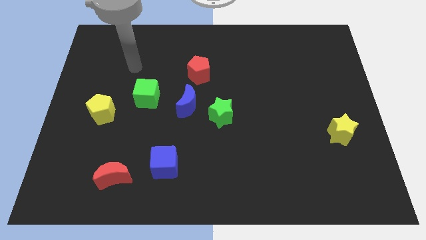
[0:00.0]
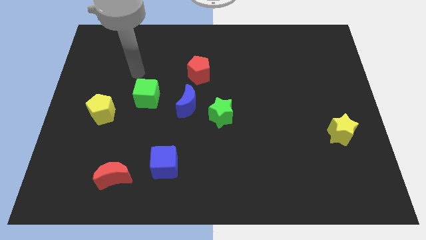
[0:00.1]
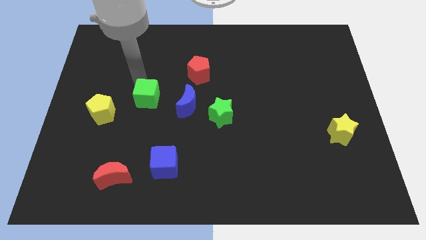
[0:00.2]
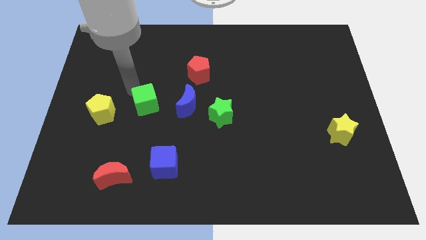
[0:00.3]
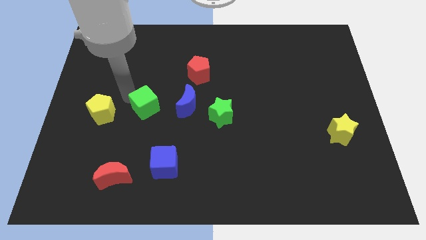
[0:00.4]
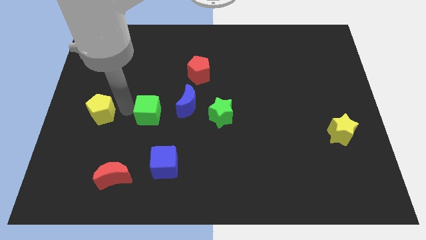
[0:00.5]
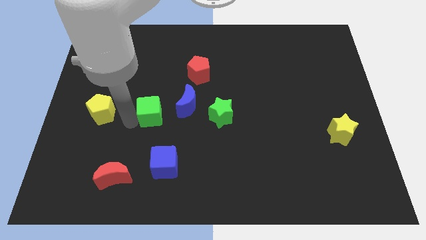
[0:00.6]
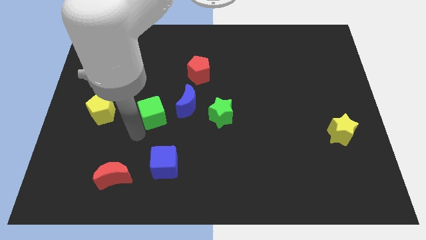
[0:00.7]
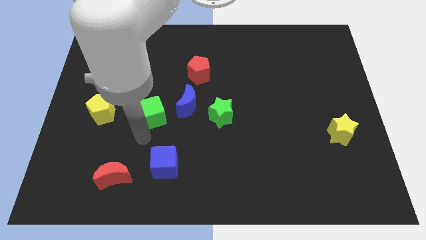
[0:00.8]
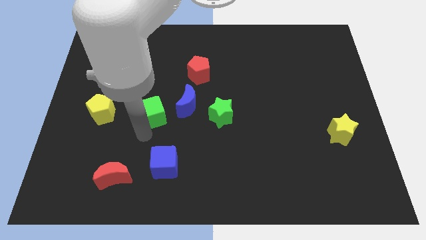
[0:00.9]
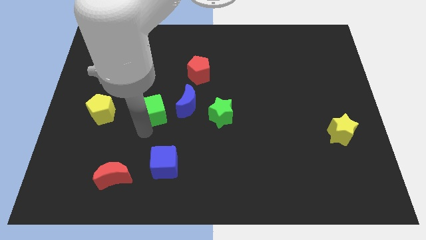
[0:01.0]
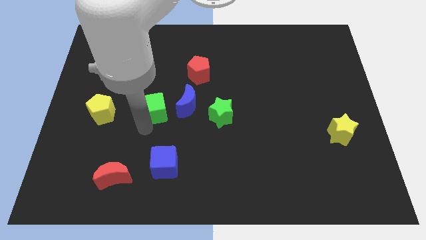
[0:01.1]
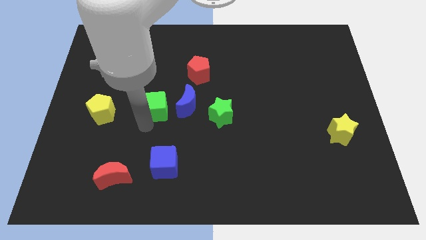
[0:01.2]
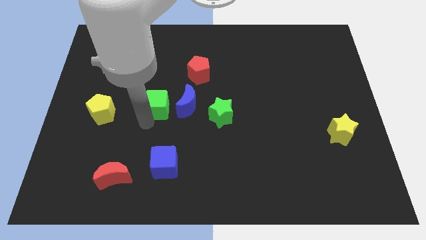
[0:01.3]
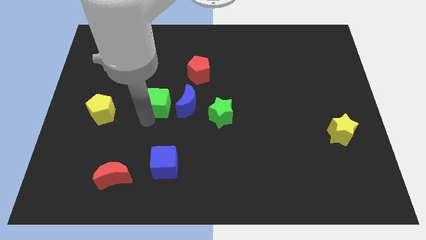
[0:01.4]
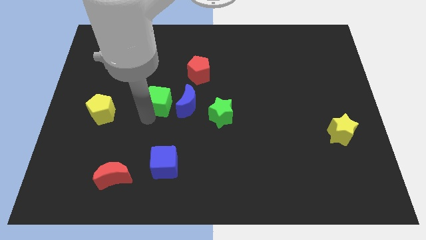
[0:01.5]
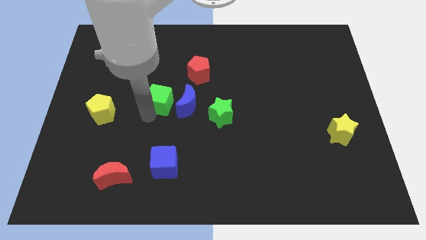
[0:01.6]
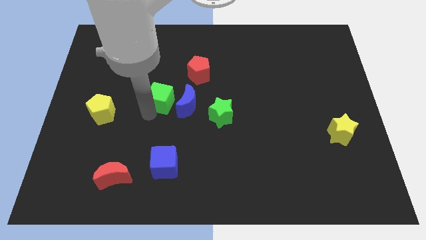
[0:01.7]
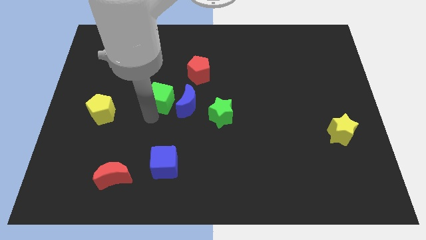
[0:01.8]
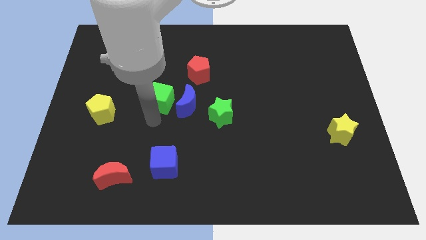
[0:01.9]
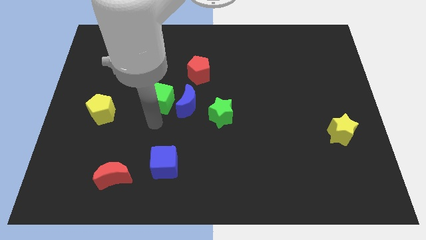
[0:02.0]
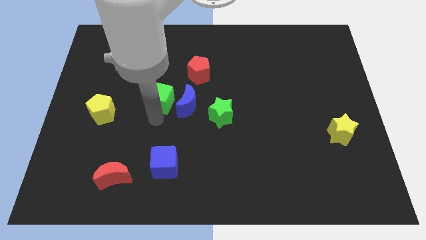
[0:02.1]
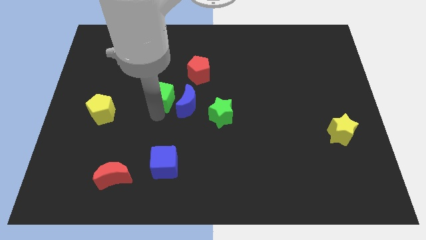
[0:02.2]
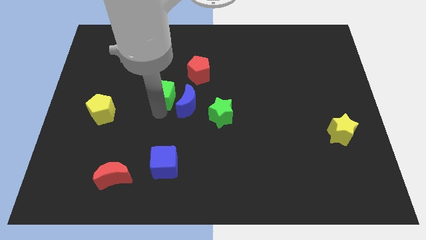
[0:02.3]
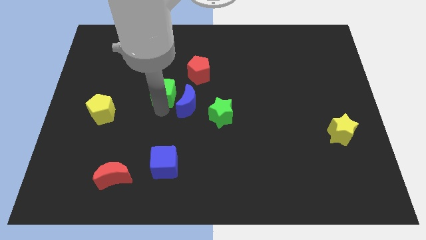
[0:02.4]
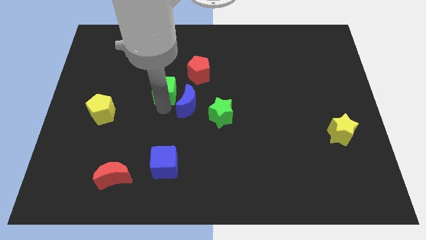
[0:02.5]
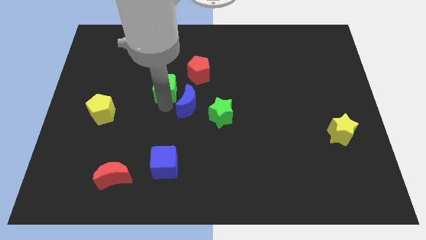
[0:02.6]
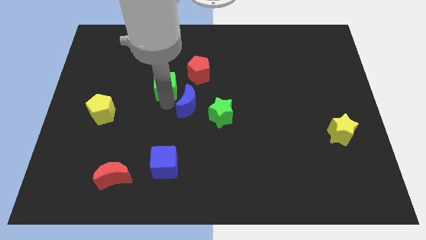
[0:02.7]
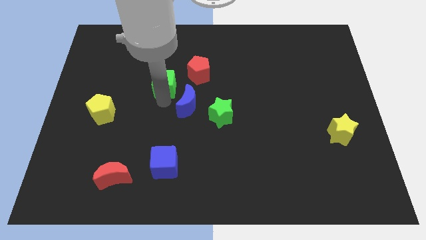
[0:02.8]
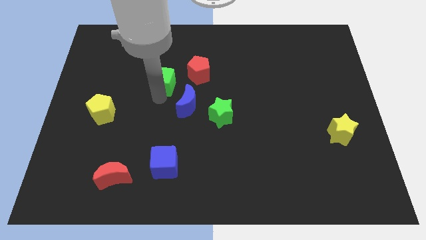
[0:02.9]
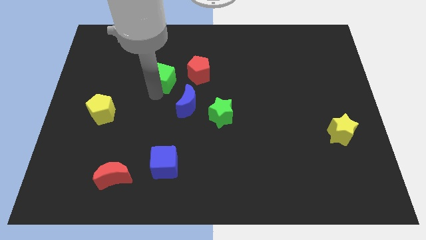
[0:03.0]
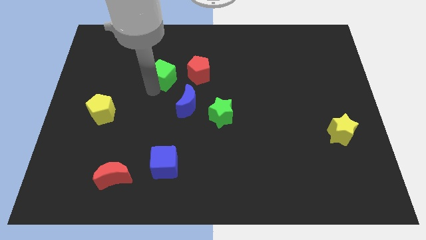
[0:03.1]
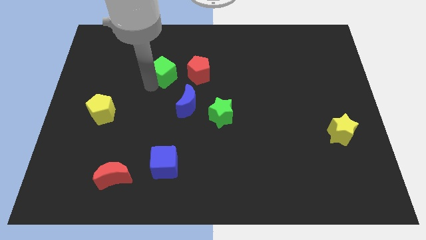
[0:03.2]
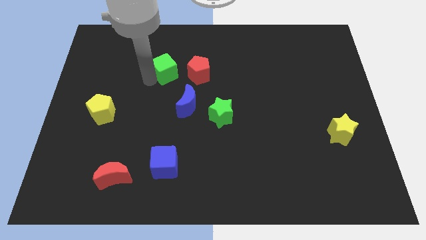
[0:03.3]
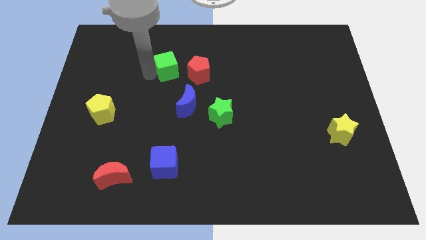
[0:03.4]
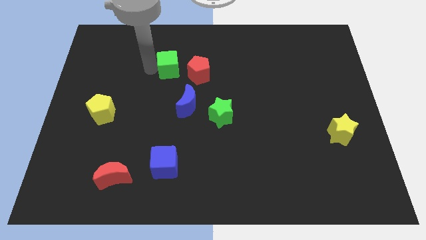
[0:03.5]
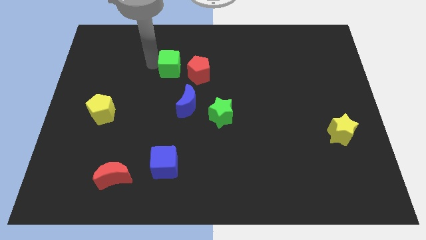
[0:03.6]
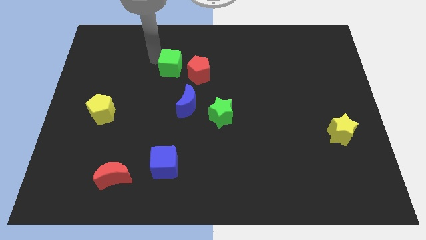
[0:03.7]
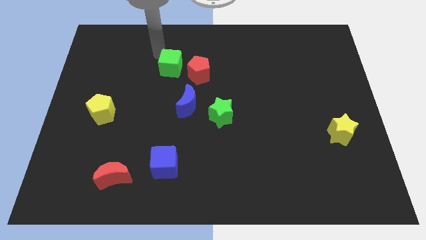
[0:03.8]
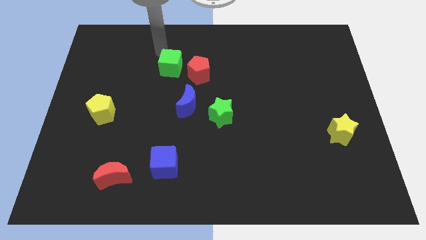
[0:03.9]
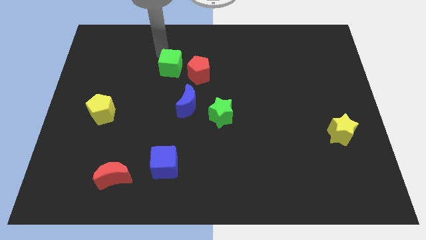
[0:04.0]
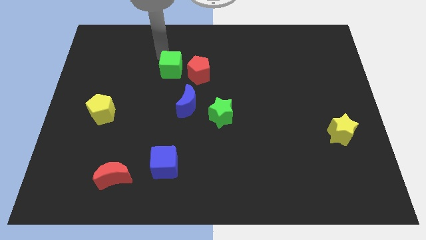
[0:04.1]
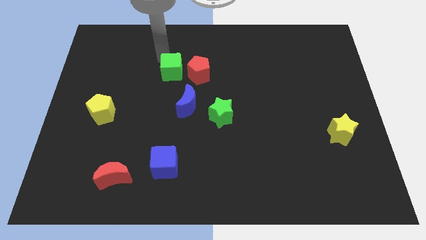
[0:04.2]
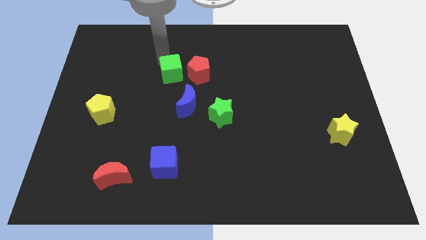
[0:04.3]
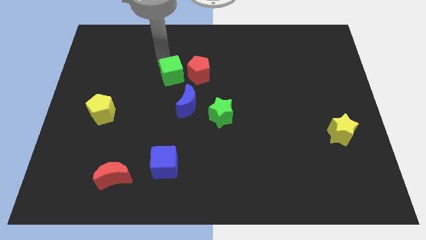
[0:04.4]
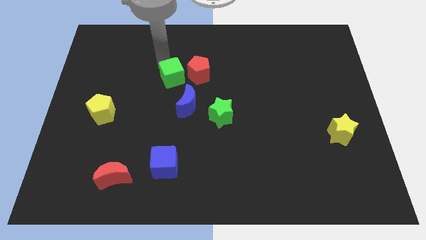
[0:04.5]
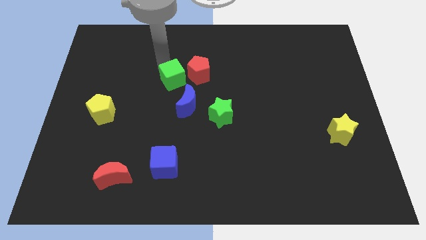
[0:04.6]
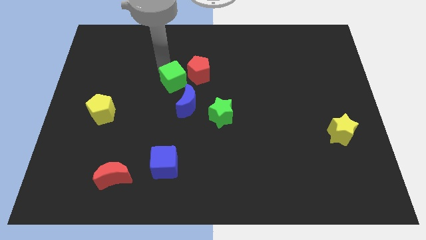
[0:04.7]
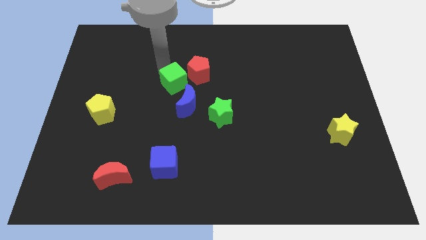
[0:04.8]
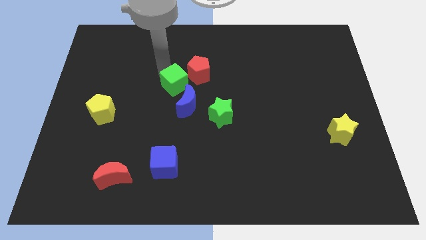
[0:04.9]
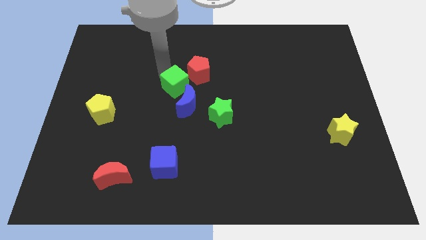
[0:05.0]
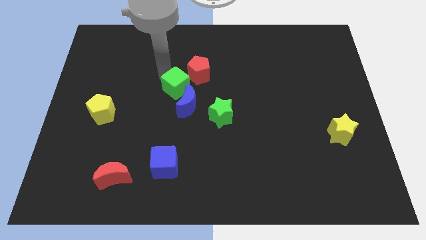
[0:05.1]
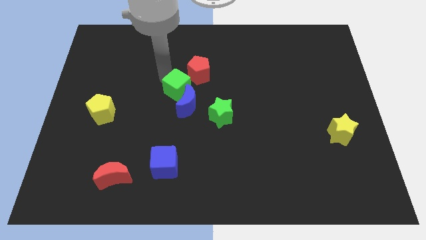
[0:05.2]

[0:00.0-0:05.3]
move the green cube to the right a little

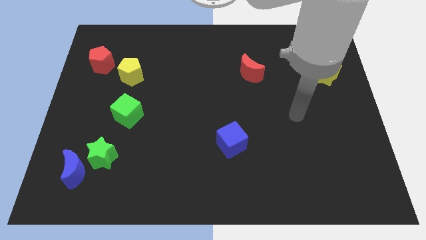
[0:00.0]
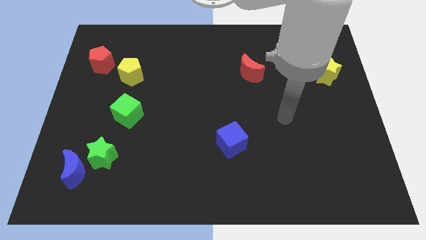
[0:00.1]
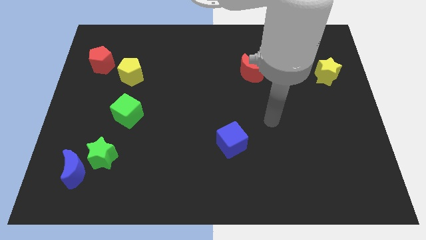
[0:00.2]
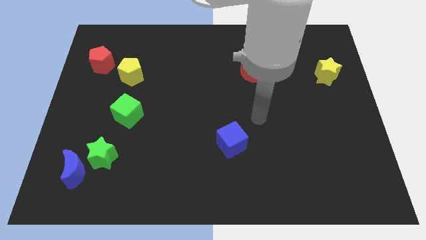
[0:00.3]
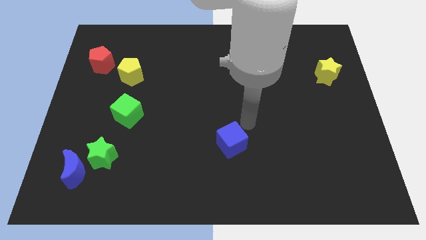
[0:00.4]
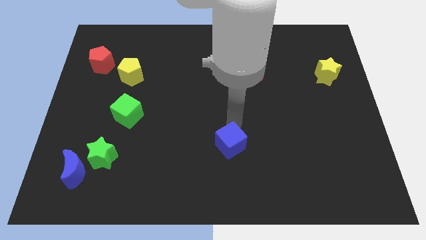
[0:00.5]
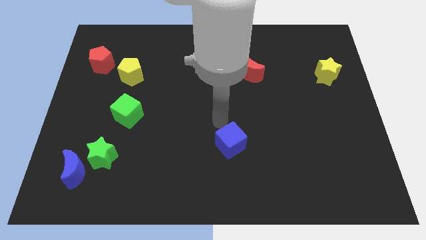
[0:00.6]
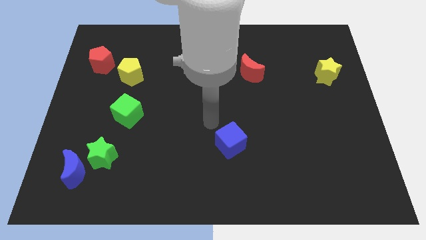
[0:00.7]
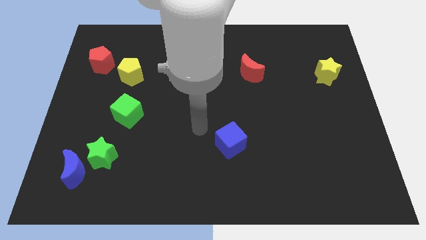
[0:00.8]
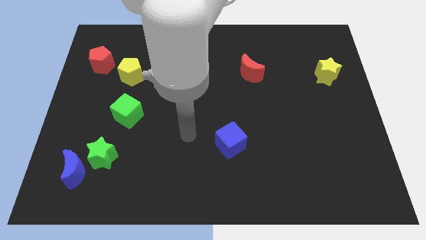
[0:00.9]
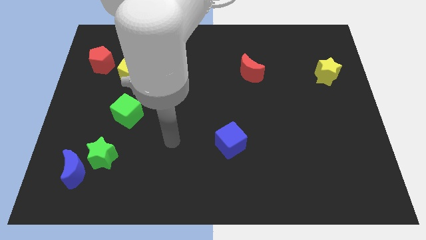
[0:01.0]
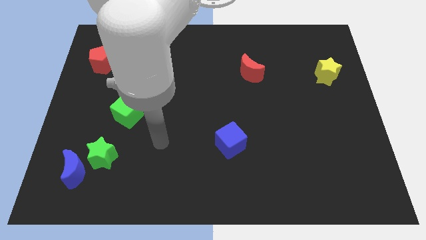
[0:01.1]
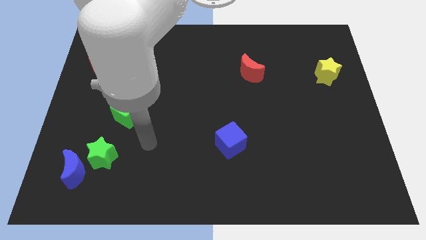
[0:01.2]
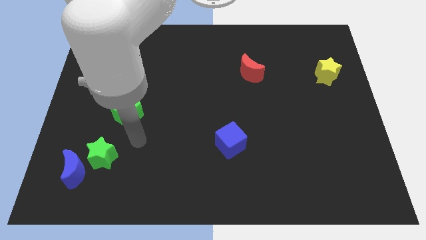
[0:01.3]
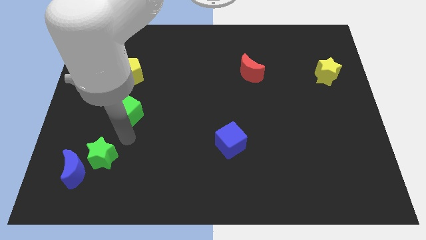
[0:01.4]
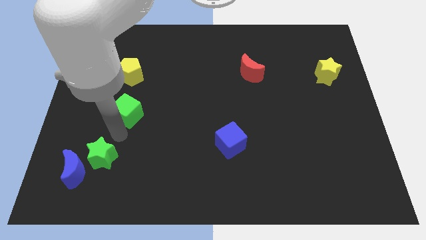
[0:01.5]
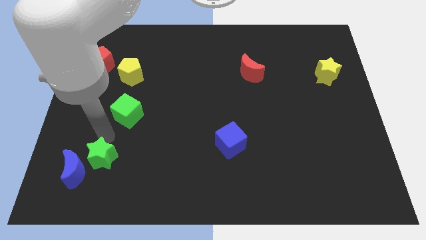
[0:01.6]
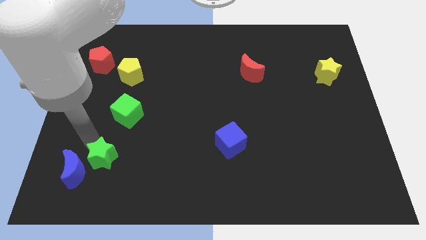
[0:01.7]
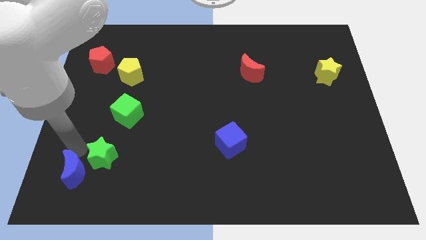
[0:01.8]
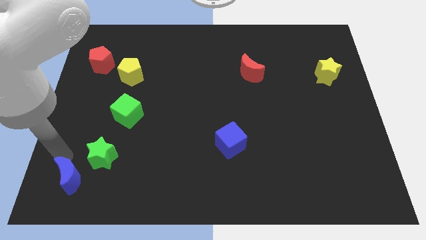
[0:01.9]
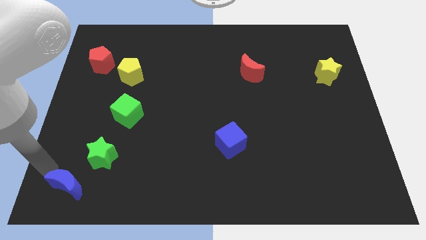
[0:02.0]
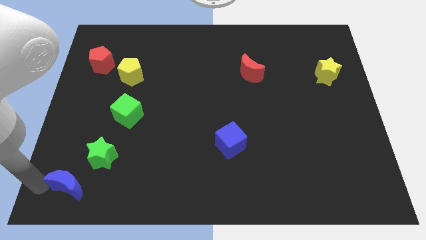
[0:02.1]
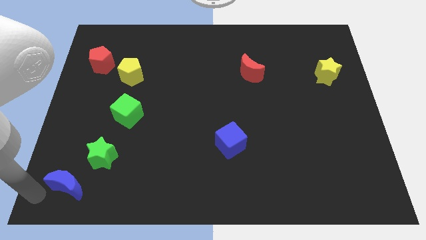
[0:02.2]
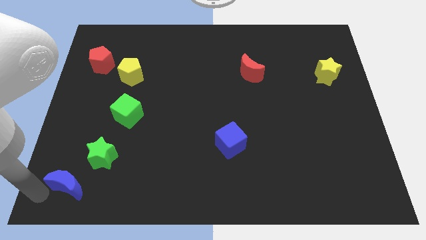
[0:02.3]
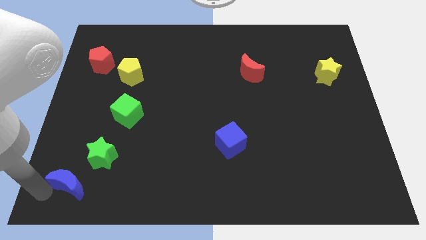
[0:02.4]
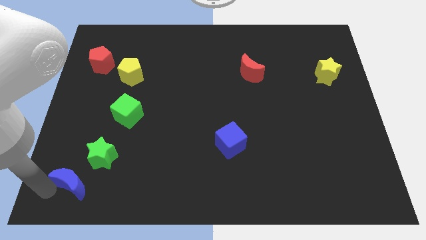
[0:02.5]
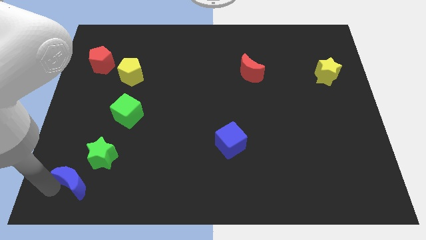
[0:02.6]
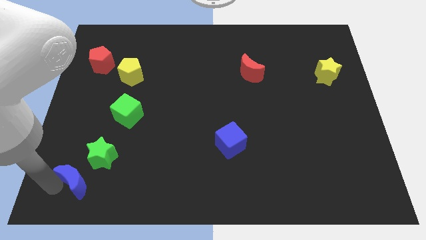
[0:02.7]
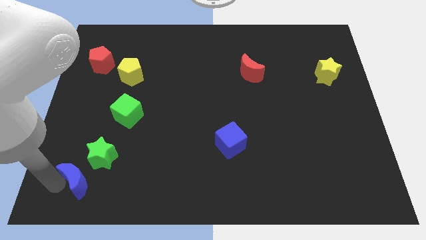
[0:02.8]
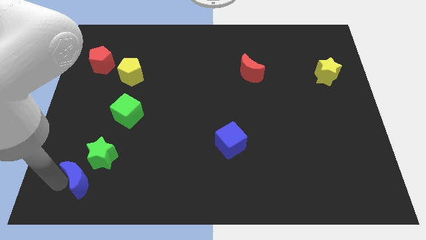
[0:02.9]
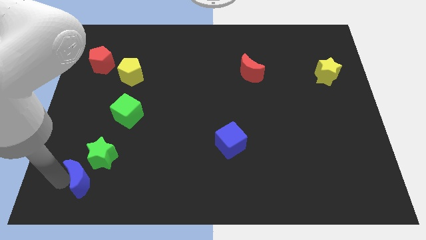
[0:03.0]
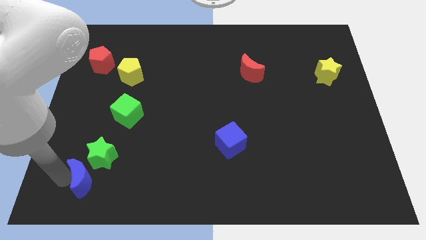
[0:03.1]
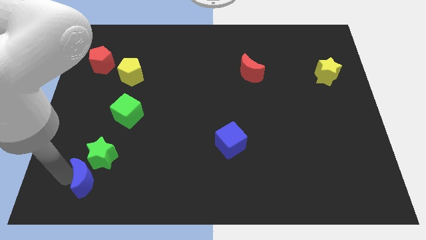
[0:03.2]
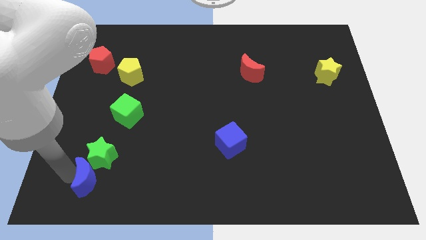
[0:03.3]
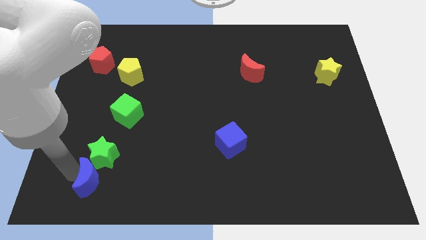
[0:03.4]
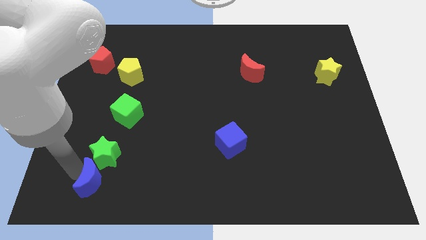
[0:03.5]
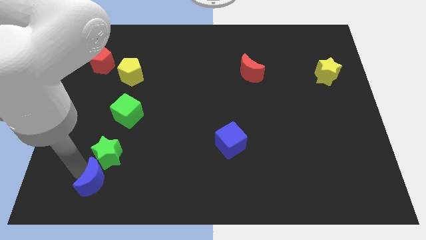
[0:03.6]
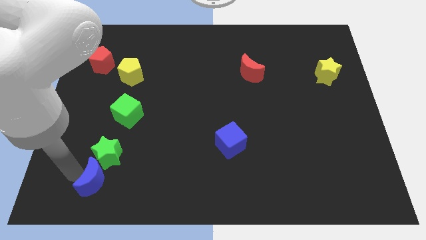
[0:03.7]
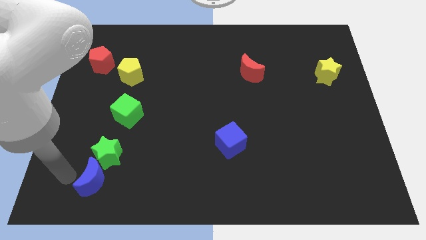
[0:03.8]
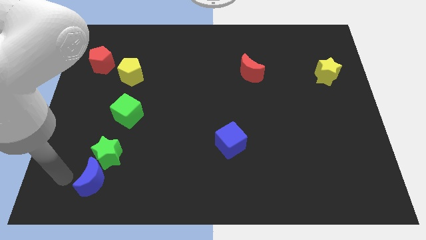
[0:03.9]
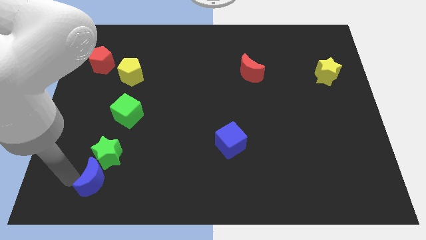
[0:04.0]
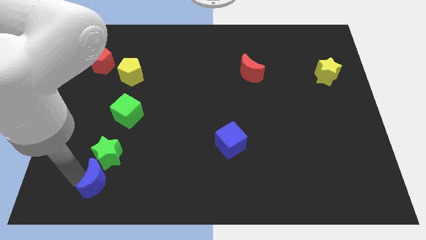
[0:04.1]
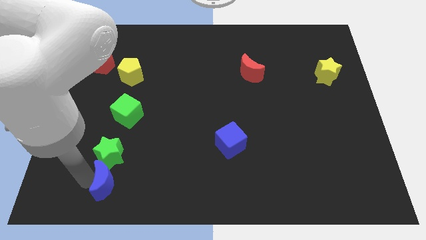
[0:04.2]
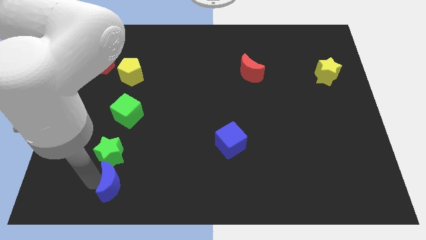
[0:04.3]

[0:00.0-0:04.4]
slightly move the blue moon right
